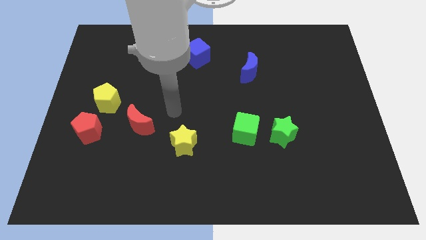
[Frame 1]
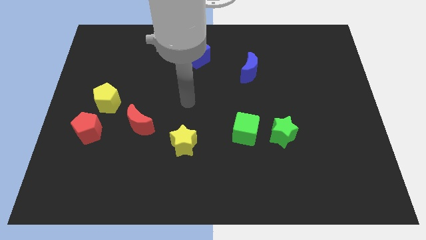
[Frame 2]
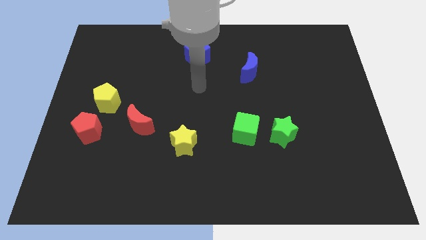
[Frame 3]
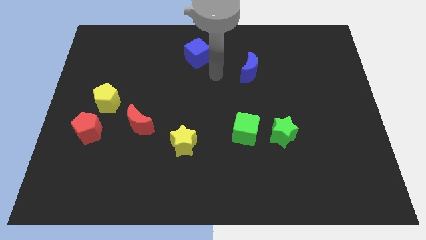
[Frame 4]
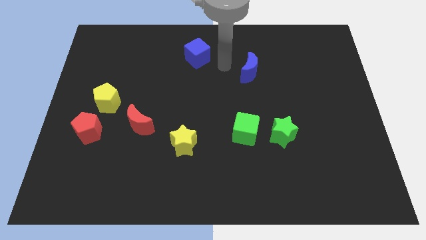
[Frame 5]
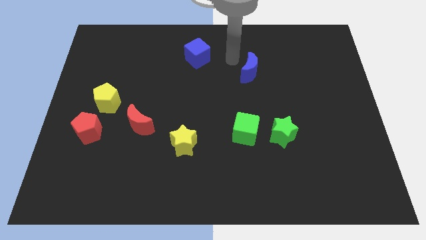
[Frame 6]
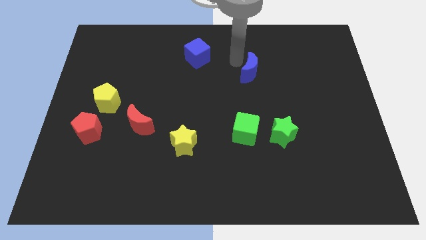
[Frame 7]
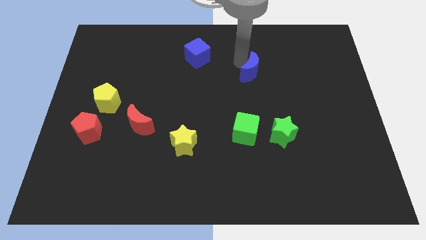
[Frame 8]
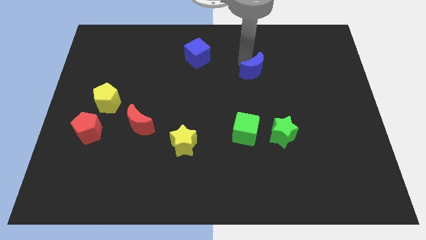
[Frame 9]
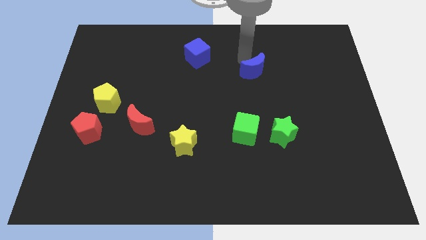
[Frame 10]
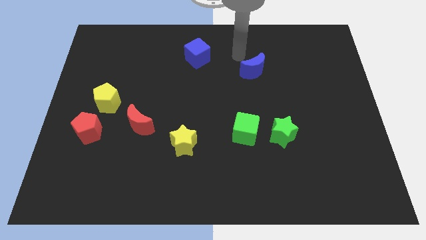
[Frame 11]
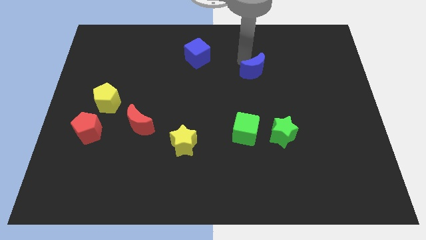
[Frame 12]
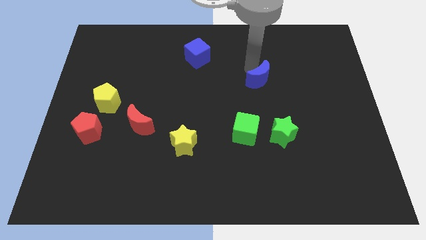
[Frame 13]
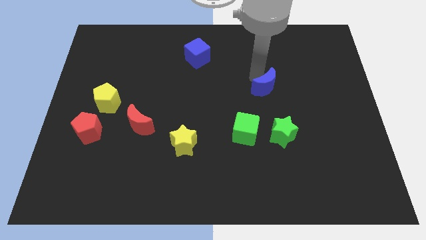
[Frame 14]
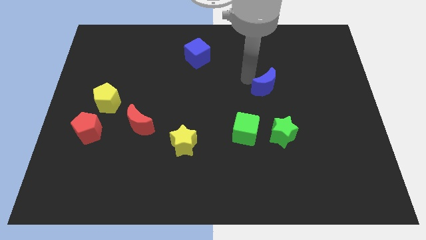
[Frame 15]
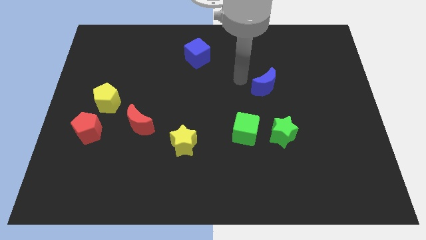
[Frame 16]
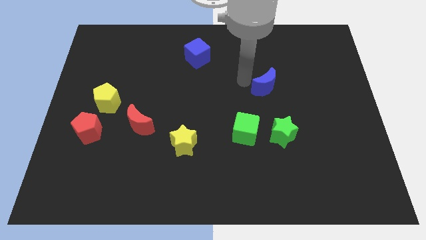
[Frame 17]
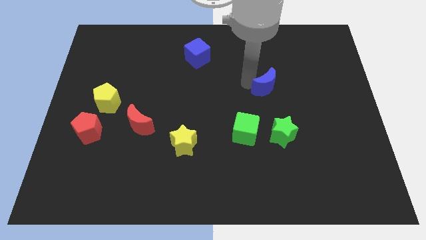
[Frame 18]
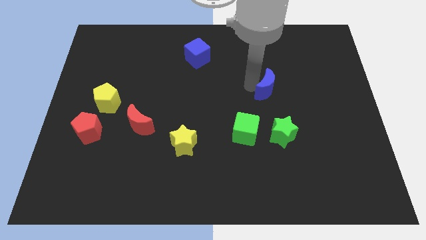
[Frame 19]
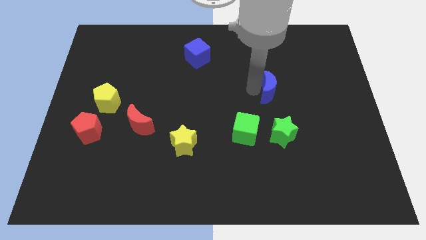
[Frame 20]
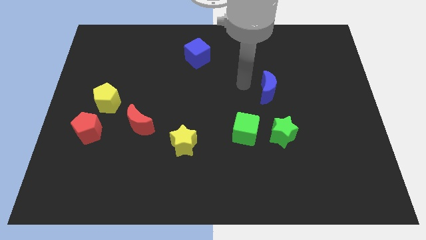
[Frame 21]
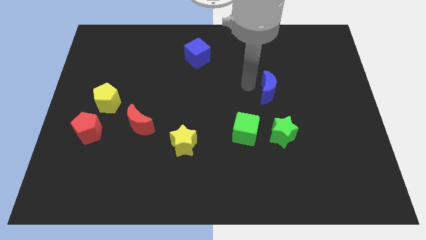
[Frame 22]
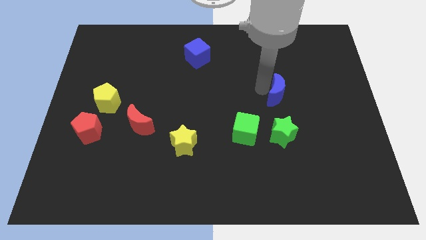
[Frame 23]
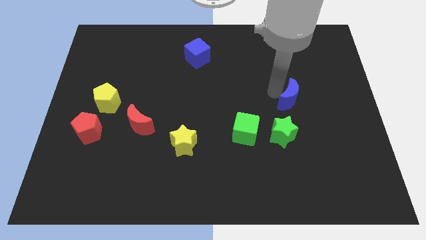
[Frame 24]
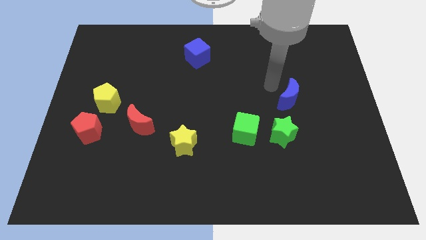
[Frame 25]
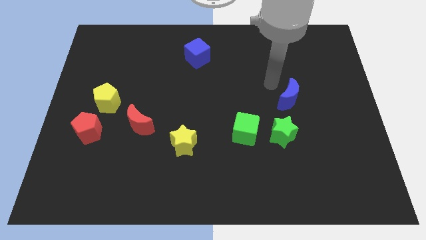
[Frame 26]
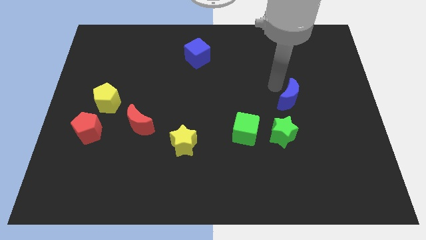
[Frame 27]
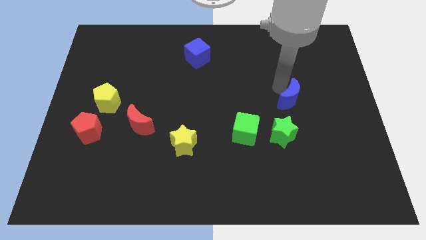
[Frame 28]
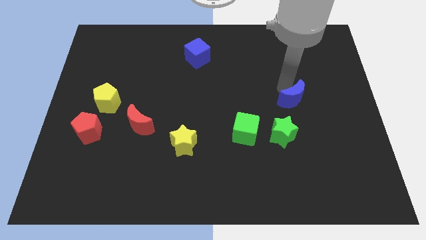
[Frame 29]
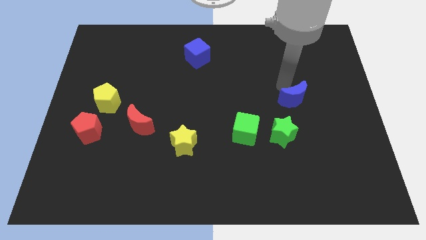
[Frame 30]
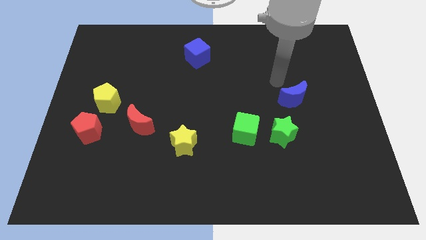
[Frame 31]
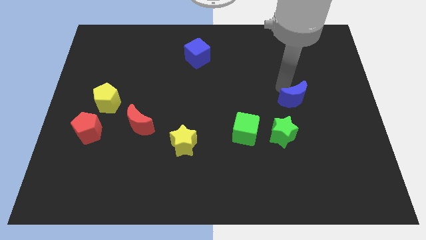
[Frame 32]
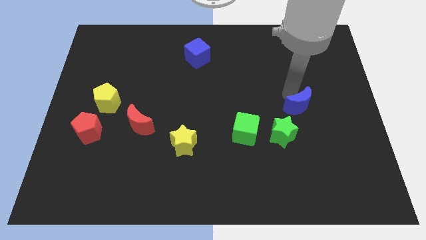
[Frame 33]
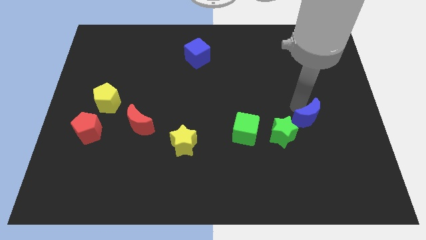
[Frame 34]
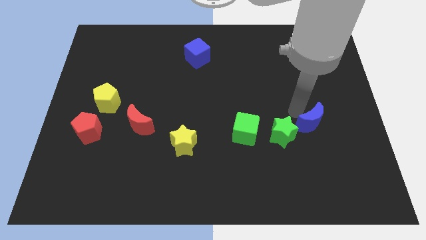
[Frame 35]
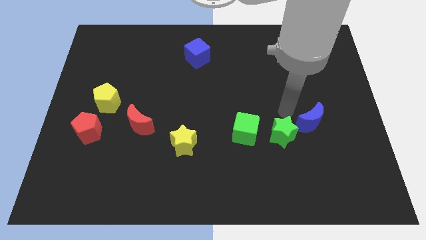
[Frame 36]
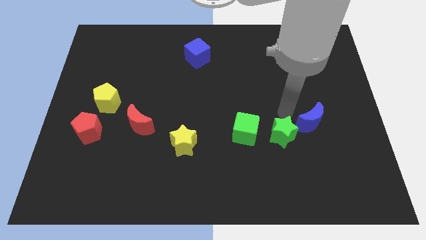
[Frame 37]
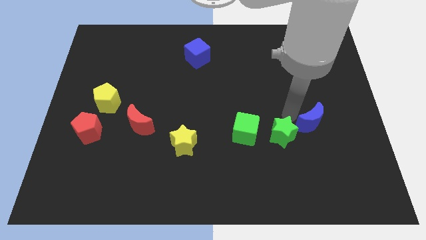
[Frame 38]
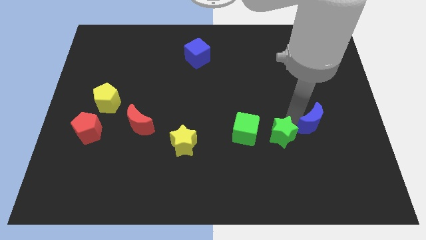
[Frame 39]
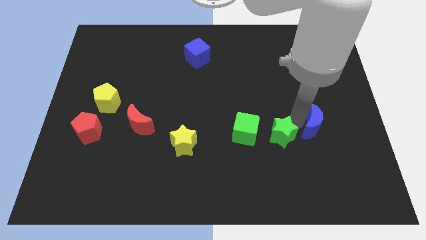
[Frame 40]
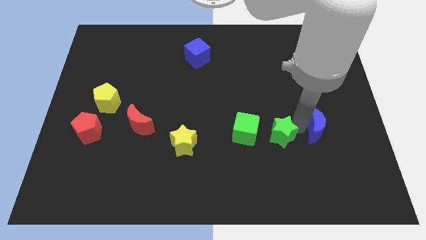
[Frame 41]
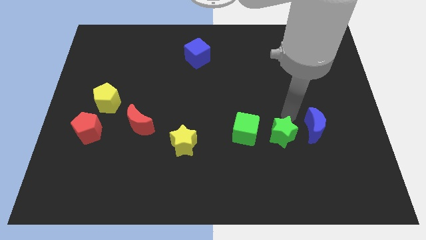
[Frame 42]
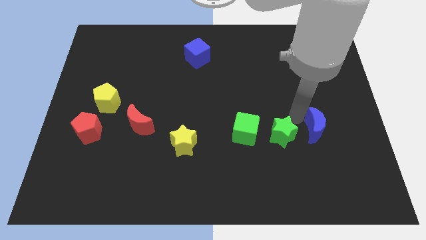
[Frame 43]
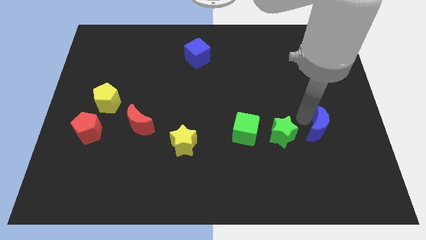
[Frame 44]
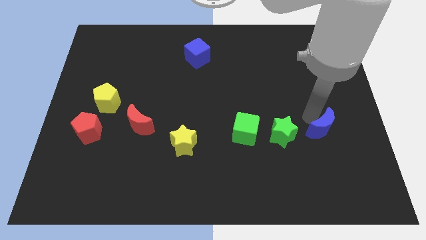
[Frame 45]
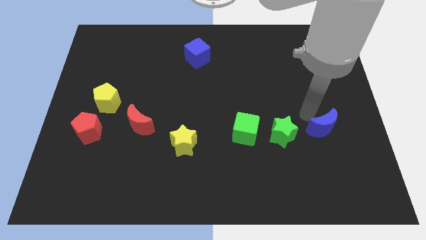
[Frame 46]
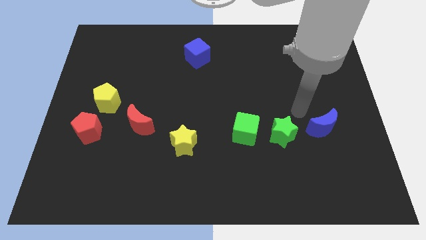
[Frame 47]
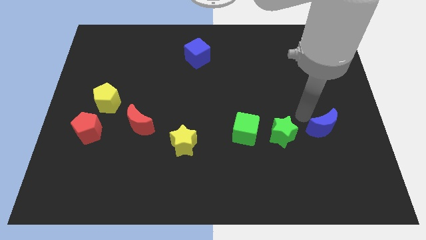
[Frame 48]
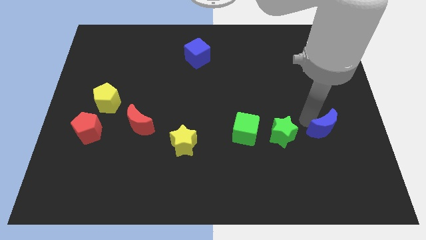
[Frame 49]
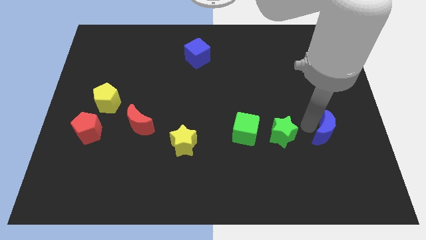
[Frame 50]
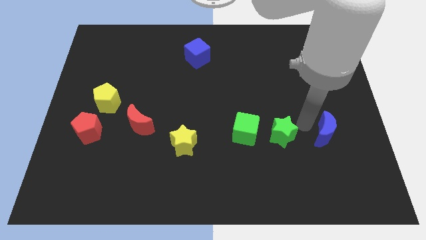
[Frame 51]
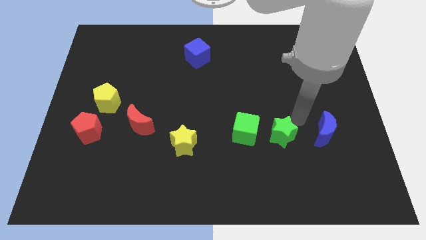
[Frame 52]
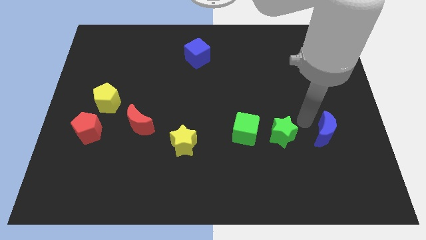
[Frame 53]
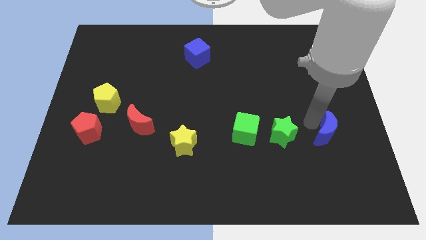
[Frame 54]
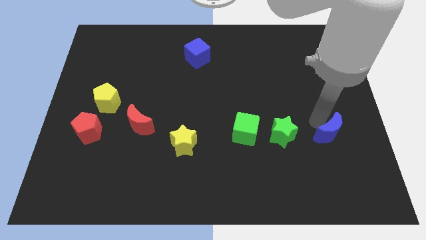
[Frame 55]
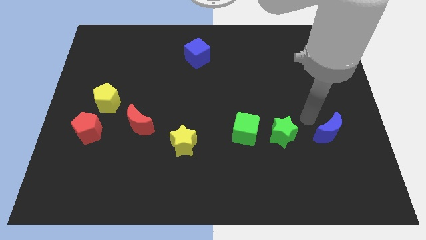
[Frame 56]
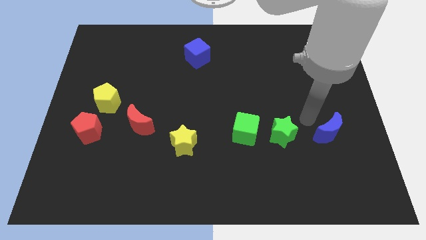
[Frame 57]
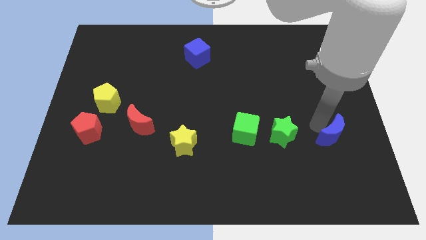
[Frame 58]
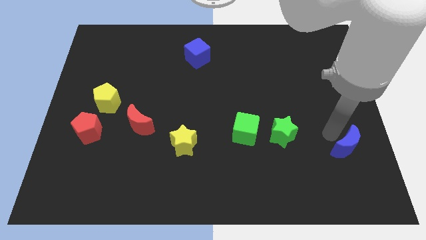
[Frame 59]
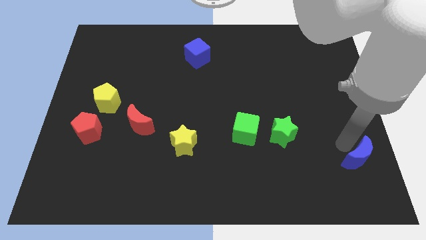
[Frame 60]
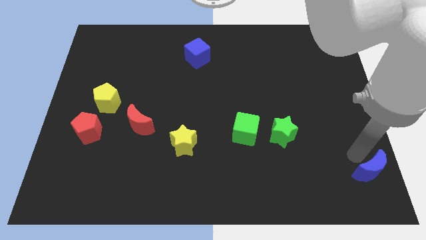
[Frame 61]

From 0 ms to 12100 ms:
slide the blue moon to the bottom right
